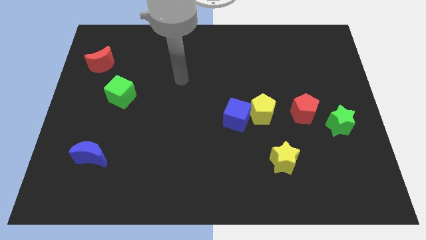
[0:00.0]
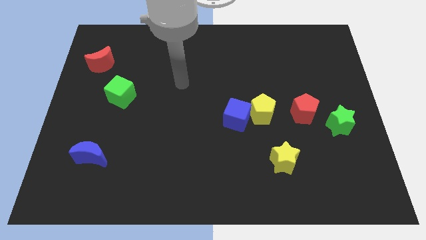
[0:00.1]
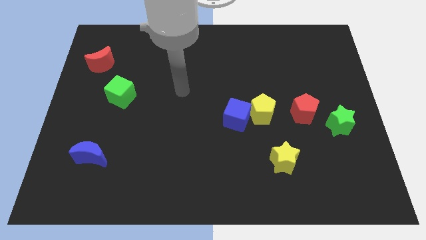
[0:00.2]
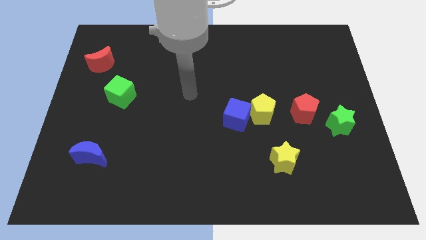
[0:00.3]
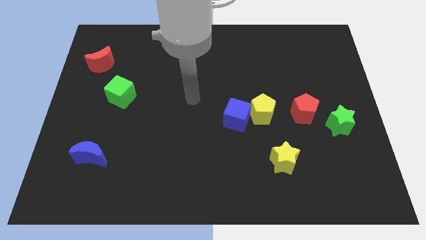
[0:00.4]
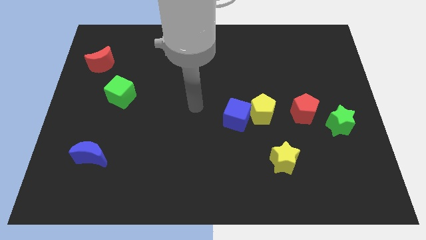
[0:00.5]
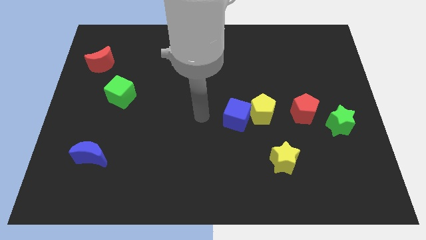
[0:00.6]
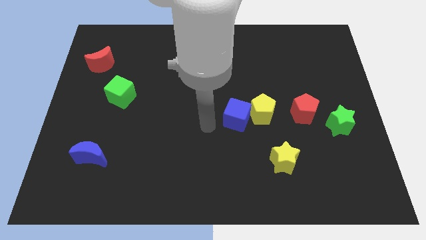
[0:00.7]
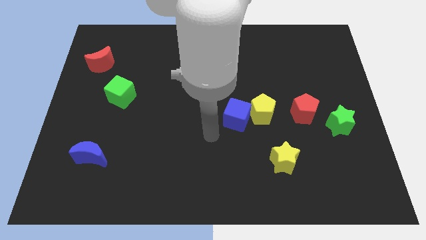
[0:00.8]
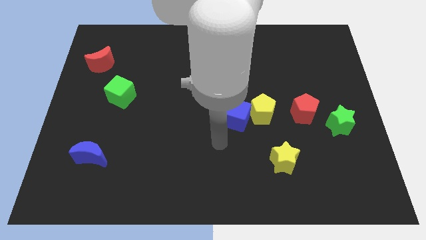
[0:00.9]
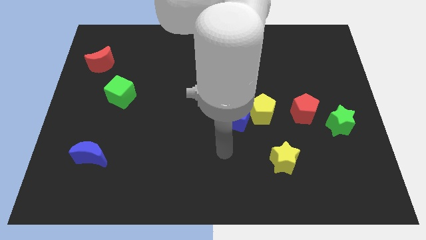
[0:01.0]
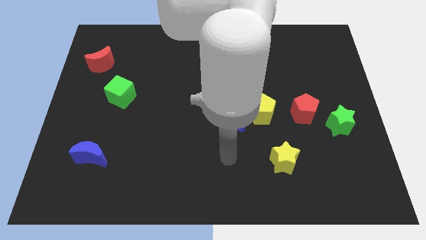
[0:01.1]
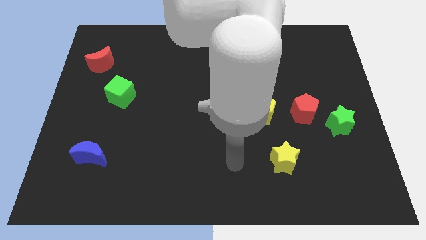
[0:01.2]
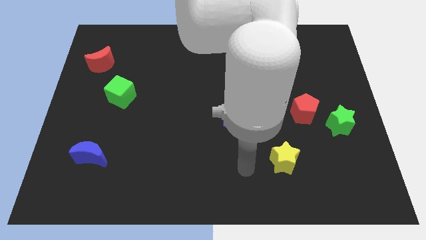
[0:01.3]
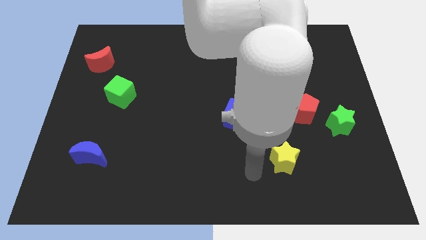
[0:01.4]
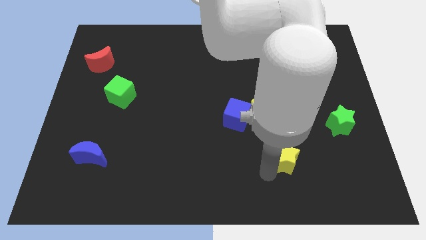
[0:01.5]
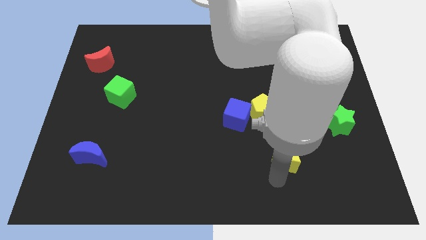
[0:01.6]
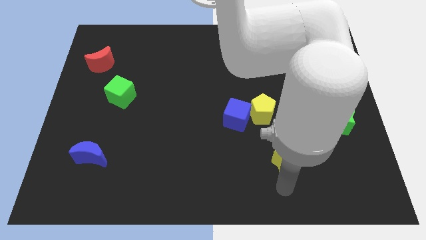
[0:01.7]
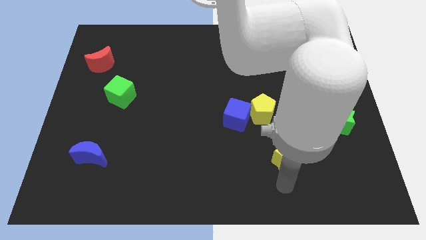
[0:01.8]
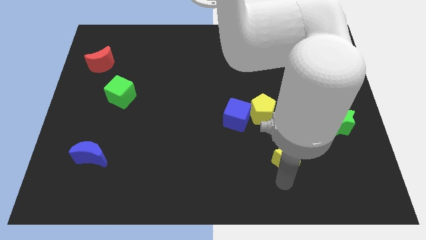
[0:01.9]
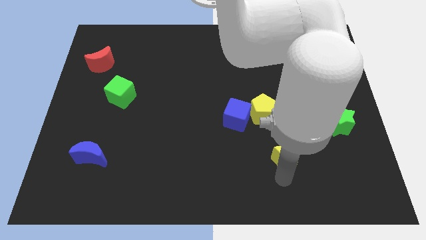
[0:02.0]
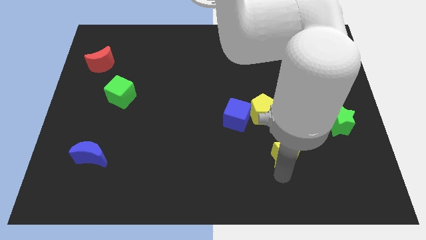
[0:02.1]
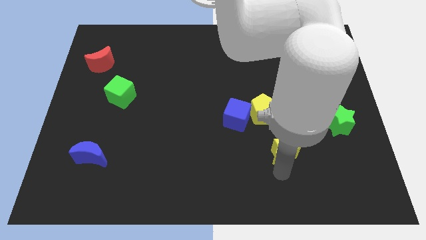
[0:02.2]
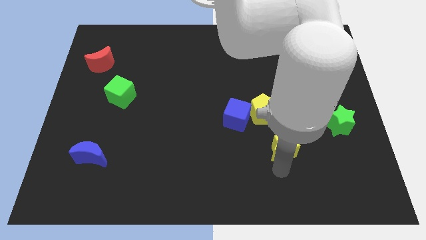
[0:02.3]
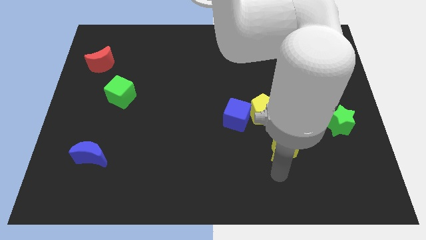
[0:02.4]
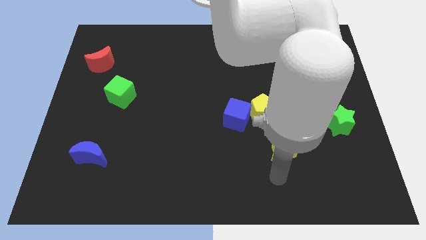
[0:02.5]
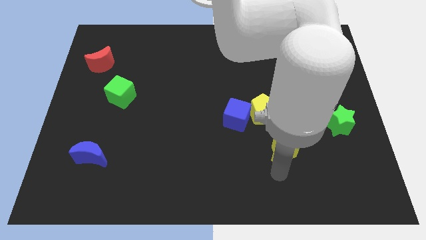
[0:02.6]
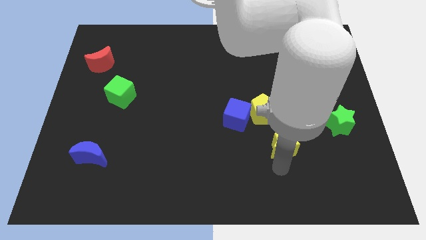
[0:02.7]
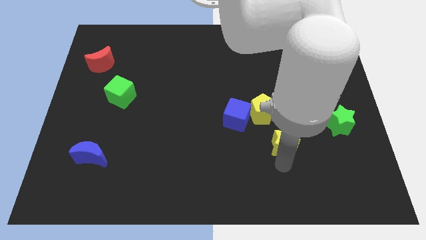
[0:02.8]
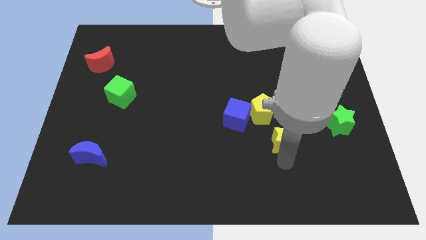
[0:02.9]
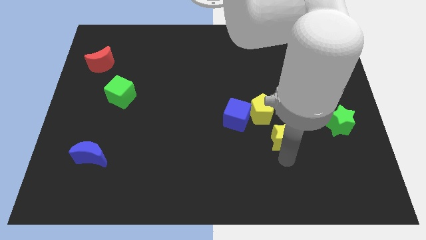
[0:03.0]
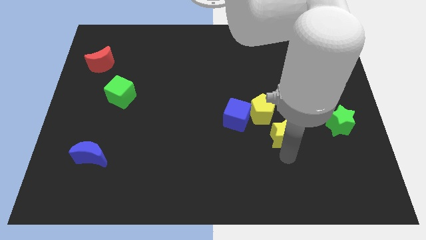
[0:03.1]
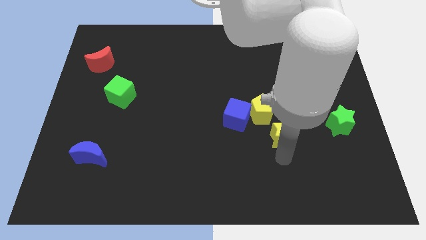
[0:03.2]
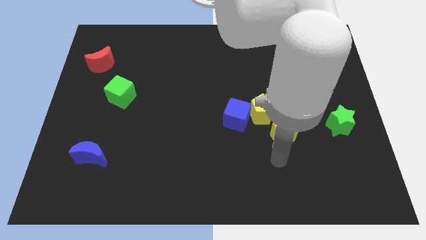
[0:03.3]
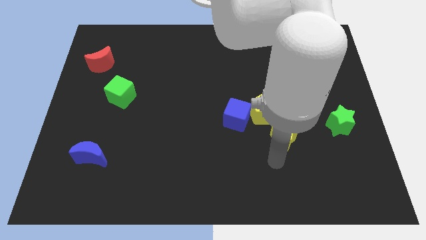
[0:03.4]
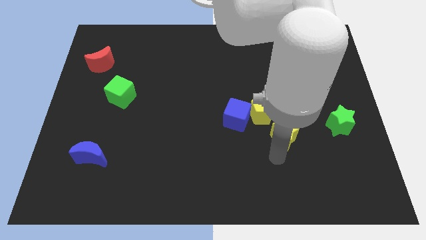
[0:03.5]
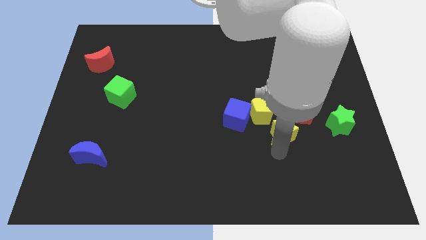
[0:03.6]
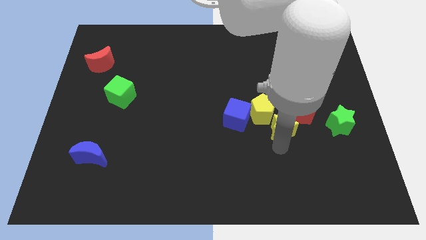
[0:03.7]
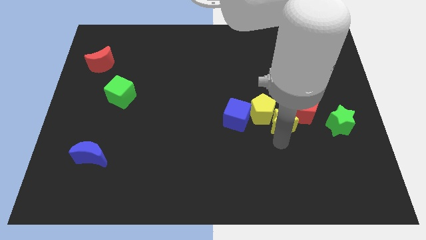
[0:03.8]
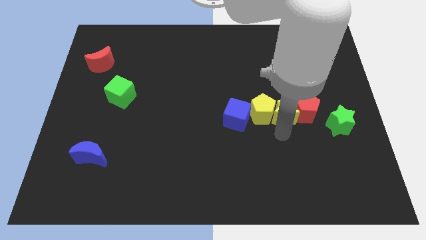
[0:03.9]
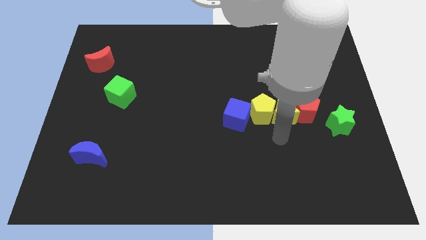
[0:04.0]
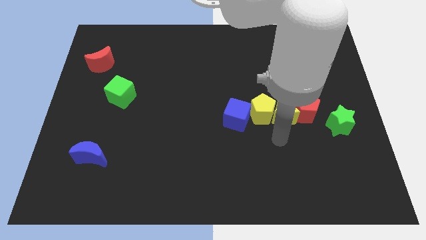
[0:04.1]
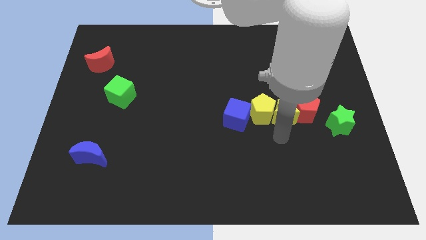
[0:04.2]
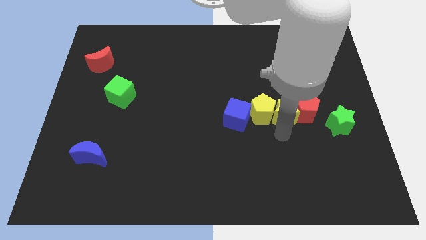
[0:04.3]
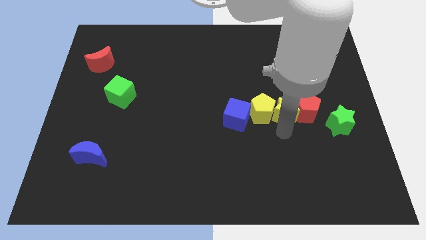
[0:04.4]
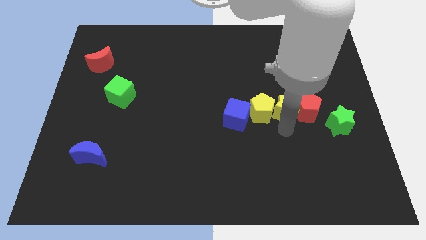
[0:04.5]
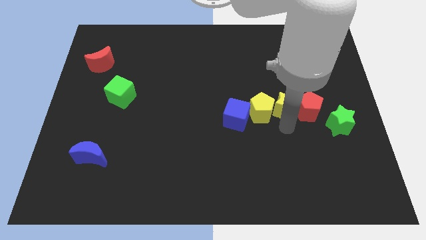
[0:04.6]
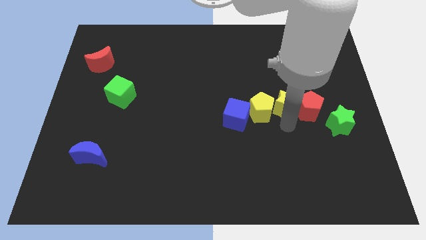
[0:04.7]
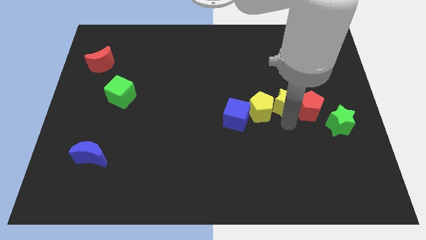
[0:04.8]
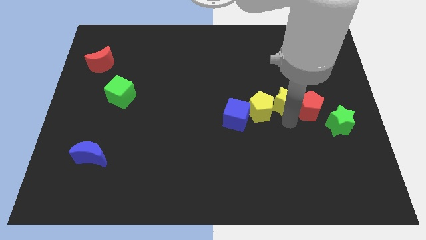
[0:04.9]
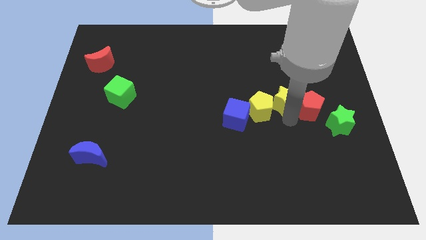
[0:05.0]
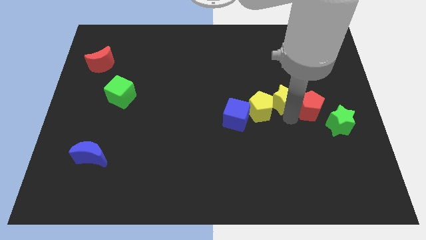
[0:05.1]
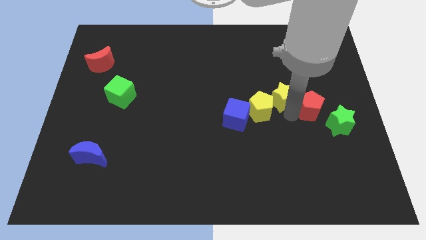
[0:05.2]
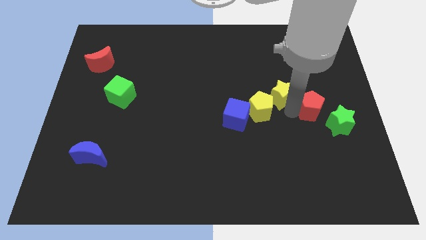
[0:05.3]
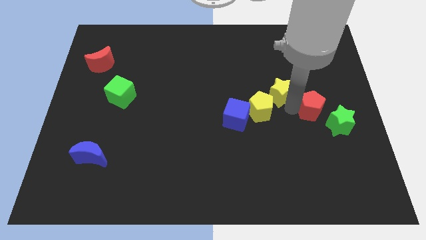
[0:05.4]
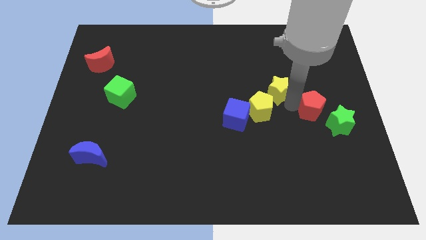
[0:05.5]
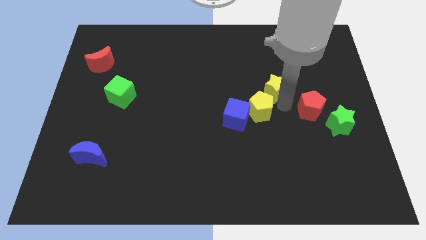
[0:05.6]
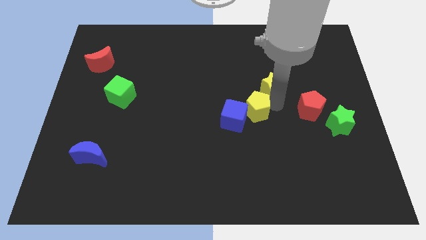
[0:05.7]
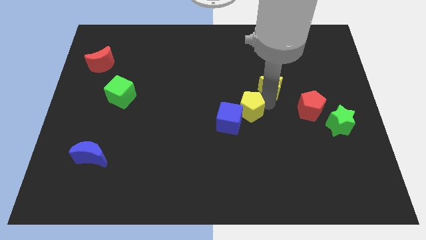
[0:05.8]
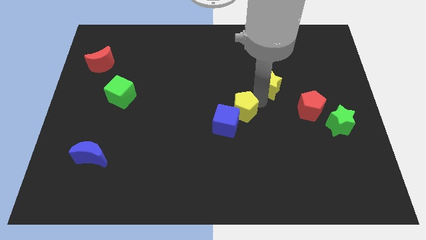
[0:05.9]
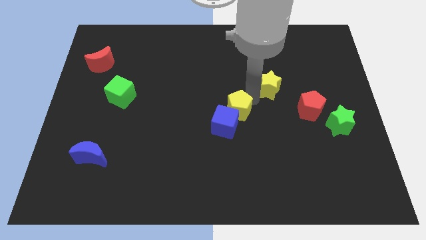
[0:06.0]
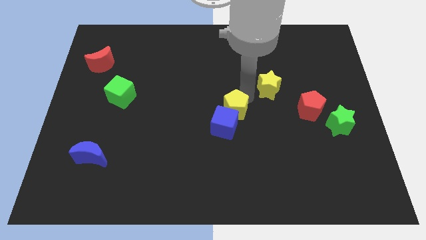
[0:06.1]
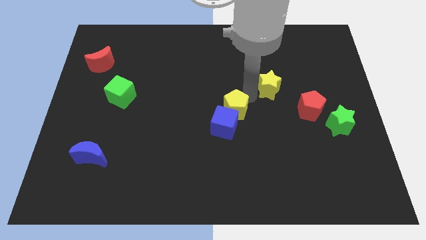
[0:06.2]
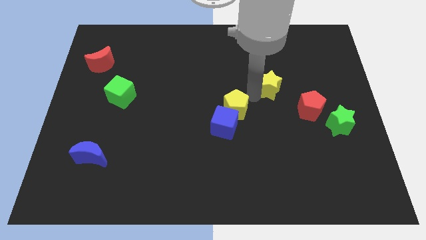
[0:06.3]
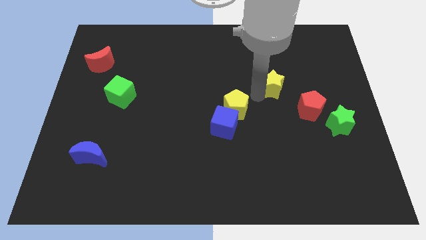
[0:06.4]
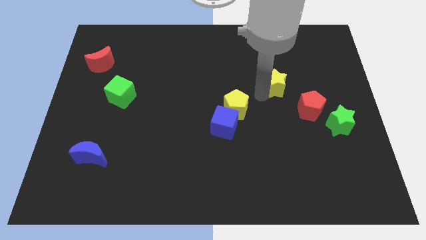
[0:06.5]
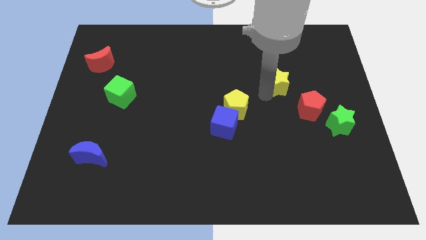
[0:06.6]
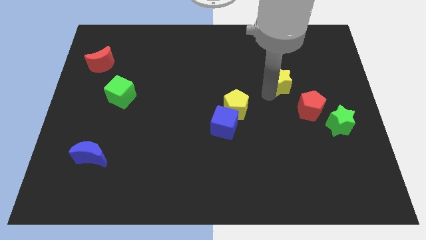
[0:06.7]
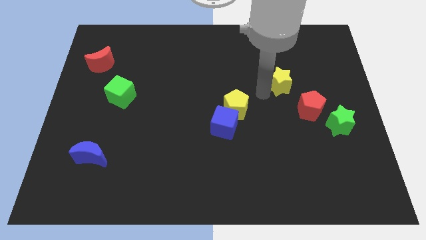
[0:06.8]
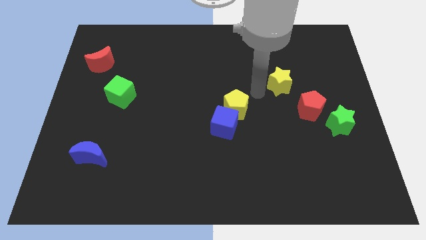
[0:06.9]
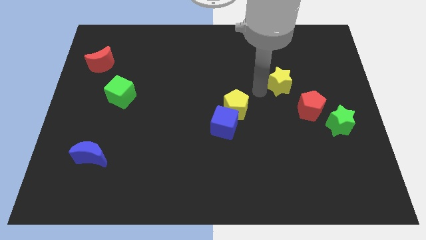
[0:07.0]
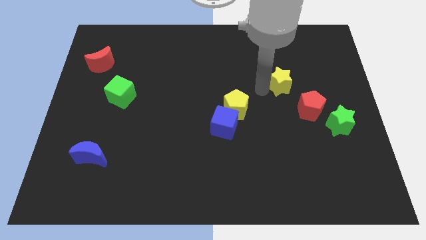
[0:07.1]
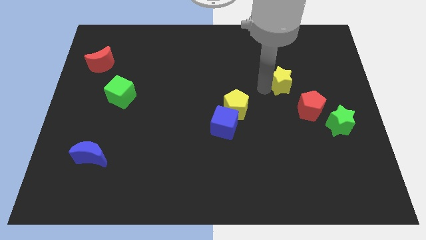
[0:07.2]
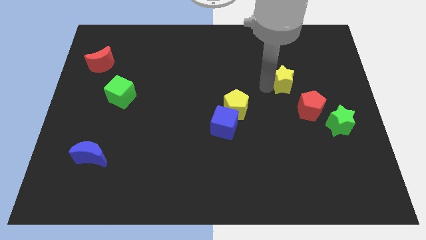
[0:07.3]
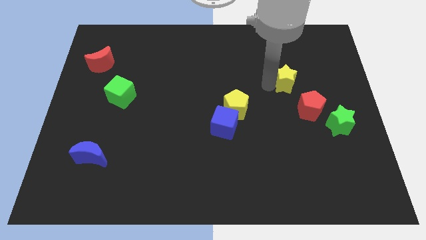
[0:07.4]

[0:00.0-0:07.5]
put the yellow star to the top side of the red pentagon
